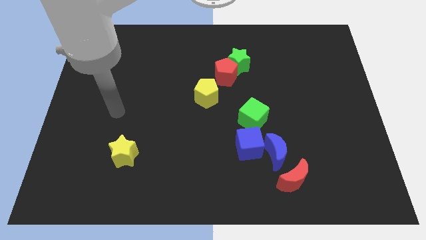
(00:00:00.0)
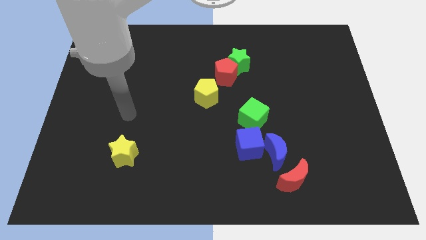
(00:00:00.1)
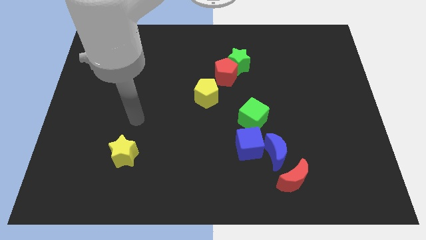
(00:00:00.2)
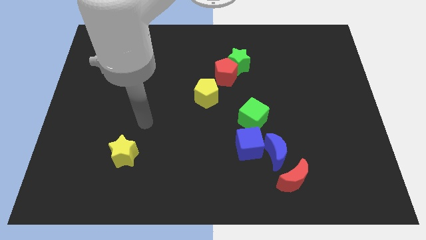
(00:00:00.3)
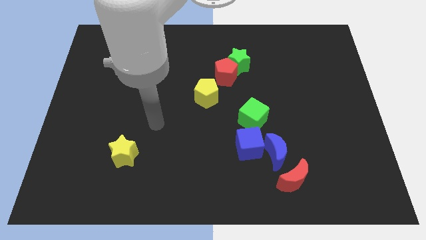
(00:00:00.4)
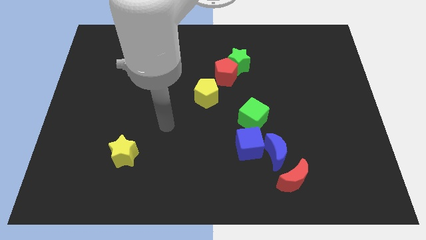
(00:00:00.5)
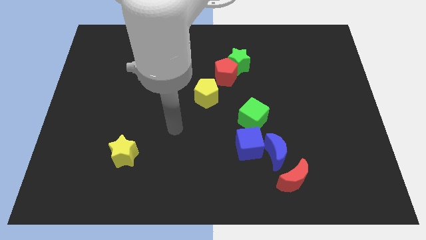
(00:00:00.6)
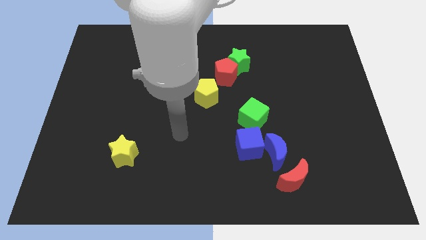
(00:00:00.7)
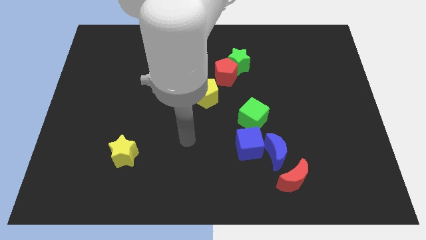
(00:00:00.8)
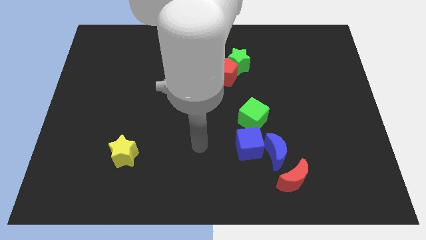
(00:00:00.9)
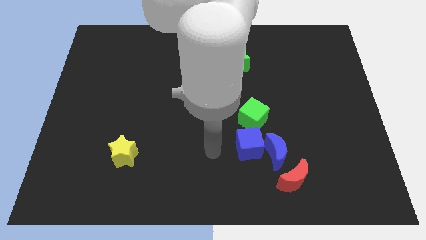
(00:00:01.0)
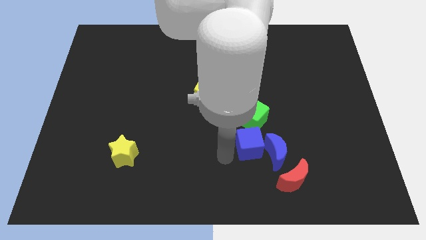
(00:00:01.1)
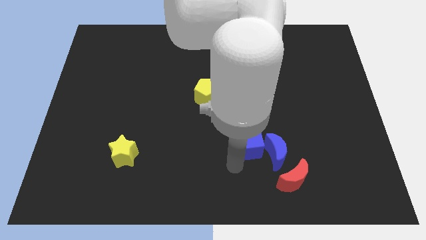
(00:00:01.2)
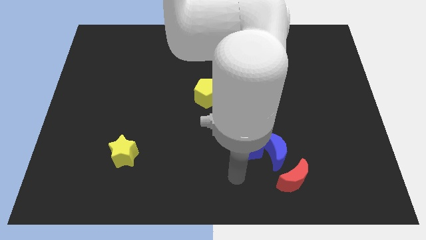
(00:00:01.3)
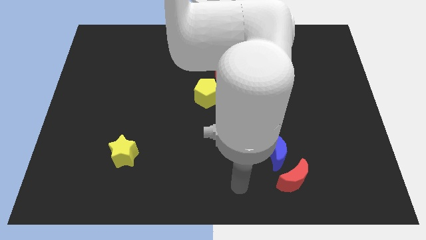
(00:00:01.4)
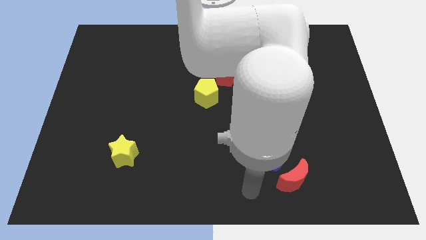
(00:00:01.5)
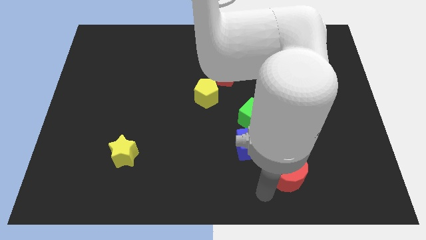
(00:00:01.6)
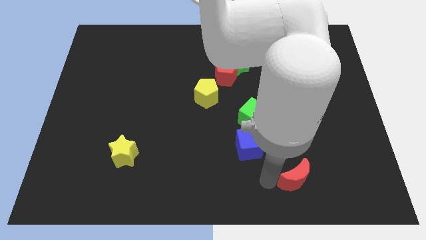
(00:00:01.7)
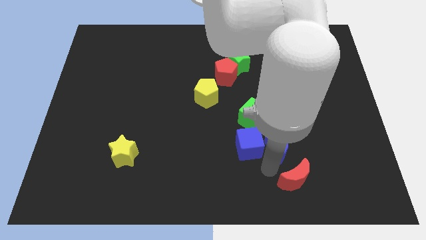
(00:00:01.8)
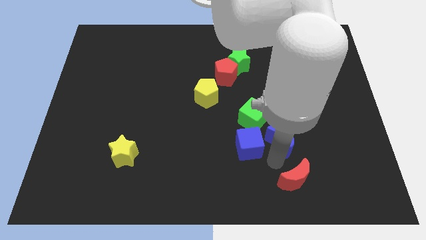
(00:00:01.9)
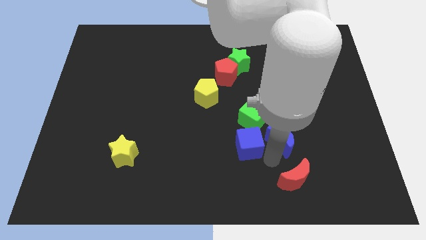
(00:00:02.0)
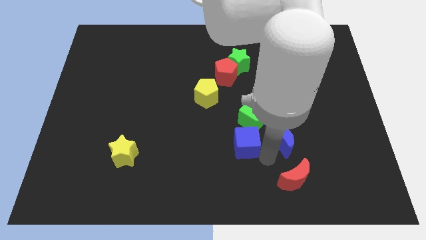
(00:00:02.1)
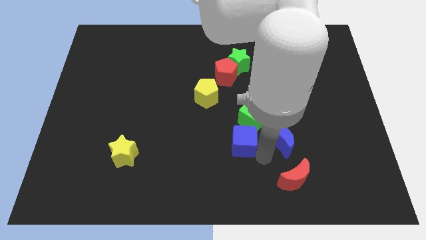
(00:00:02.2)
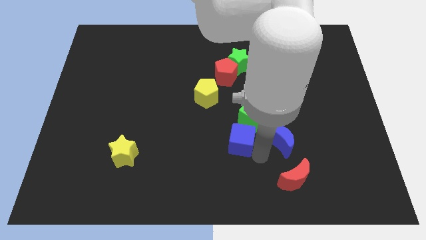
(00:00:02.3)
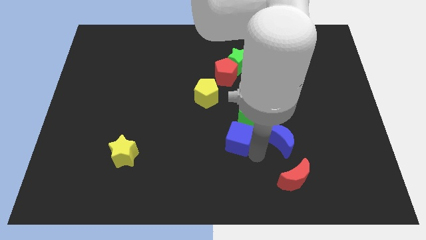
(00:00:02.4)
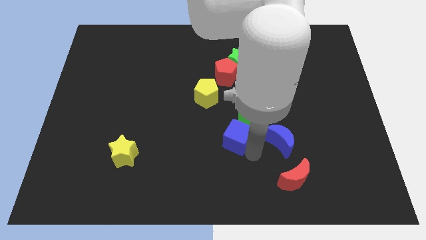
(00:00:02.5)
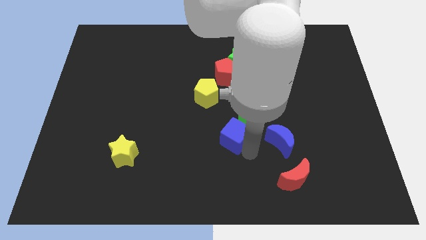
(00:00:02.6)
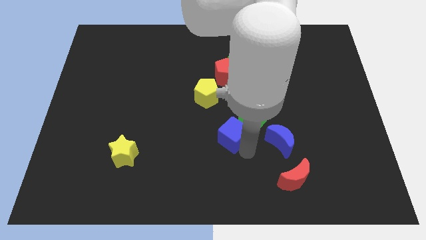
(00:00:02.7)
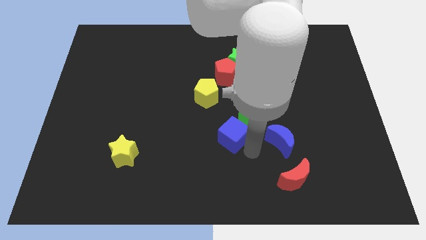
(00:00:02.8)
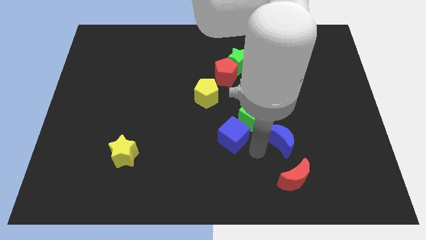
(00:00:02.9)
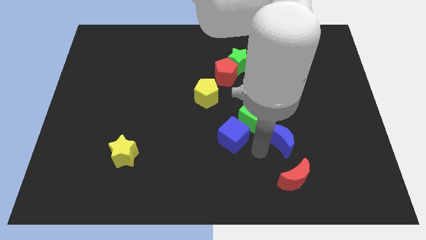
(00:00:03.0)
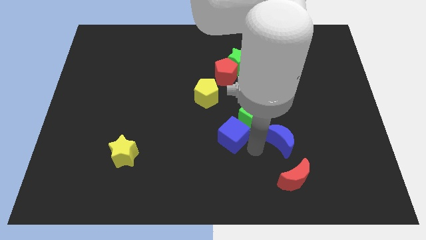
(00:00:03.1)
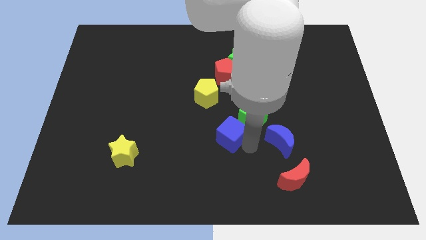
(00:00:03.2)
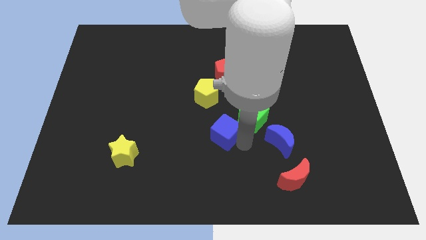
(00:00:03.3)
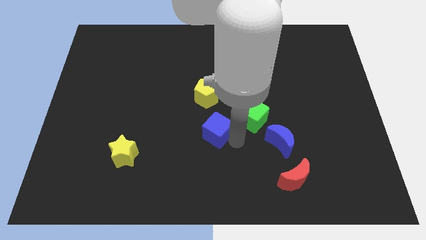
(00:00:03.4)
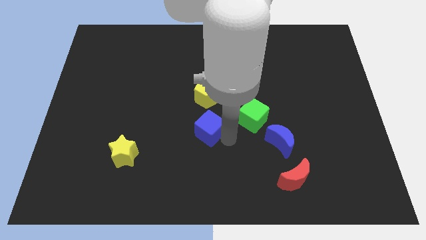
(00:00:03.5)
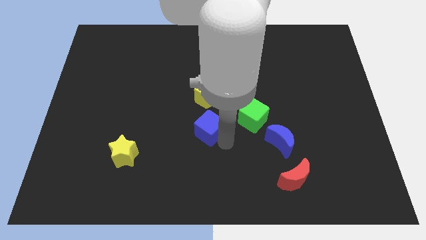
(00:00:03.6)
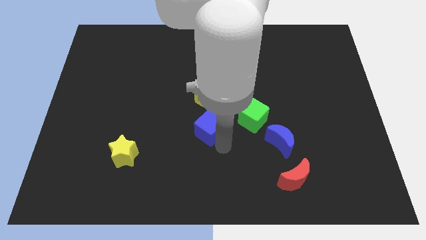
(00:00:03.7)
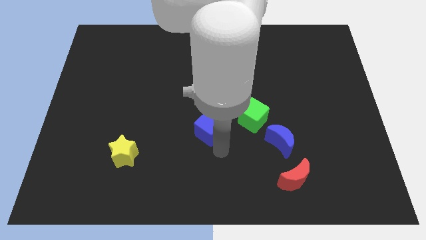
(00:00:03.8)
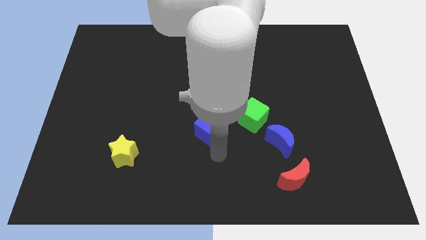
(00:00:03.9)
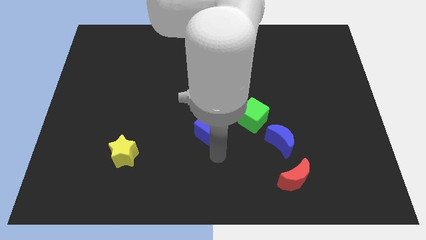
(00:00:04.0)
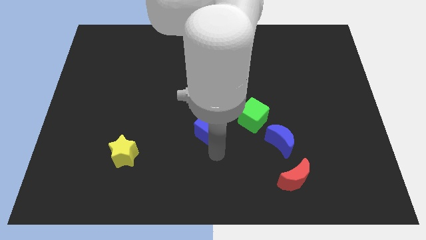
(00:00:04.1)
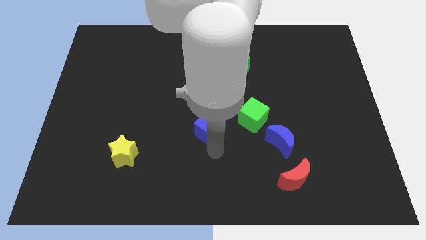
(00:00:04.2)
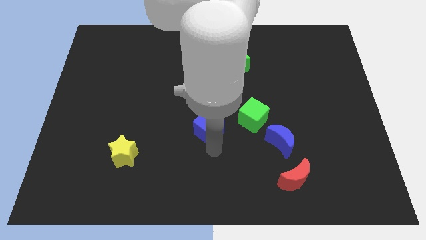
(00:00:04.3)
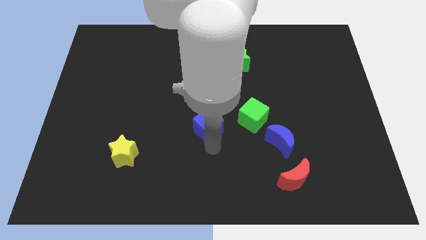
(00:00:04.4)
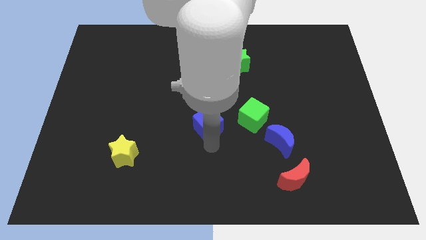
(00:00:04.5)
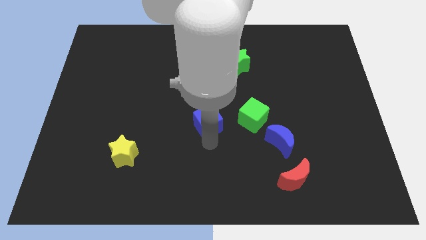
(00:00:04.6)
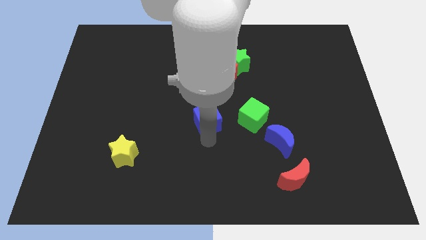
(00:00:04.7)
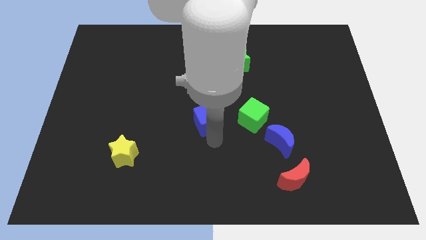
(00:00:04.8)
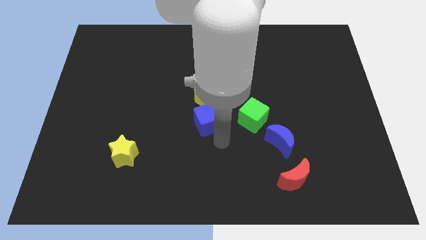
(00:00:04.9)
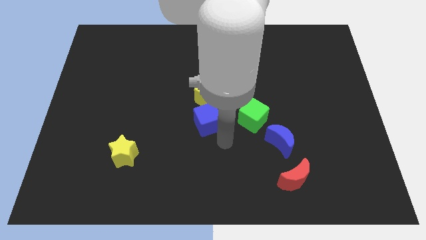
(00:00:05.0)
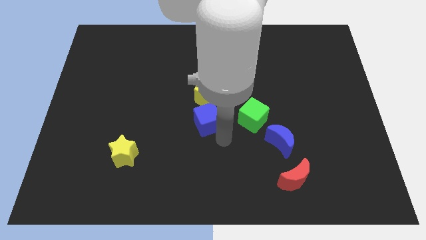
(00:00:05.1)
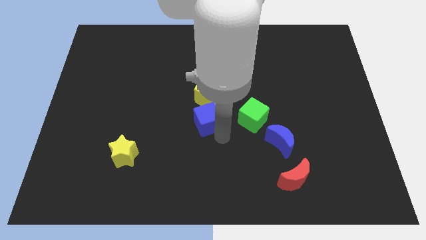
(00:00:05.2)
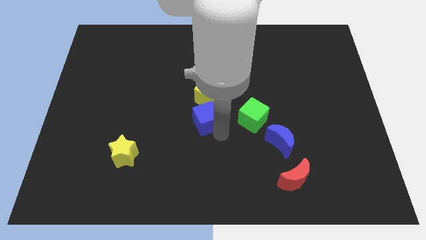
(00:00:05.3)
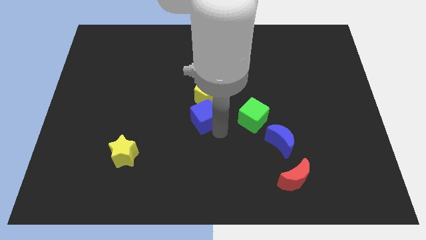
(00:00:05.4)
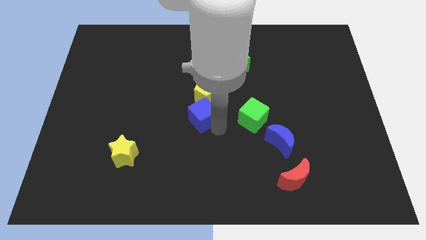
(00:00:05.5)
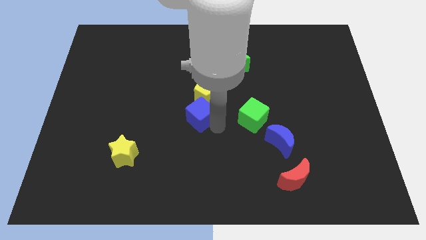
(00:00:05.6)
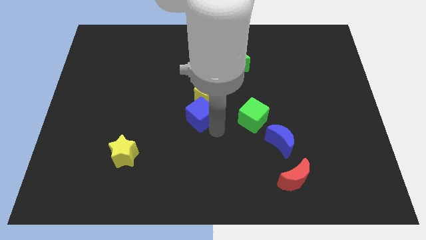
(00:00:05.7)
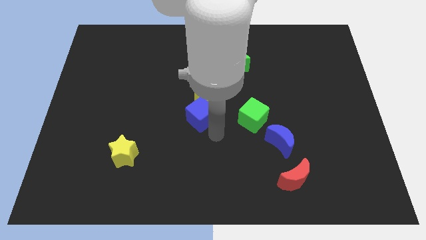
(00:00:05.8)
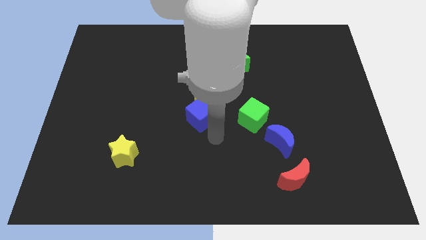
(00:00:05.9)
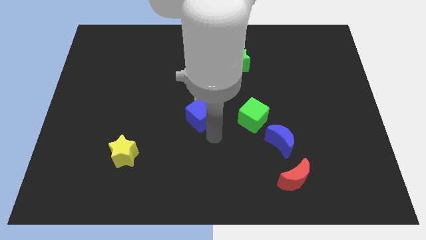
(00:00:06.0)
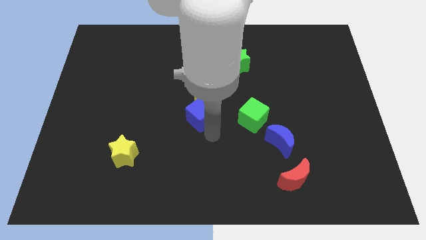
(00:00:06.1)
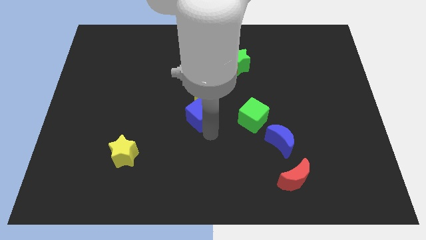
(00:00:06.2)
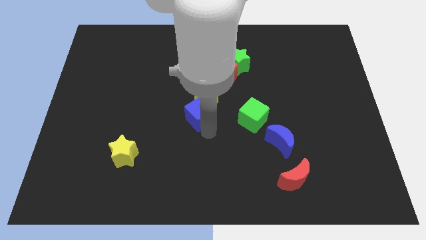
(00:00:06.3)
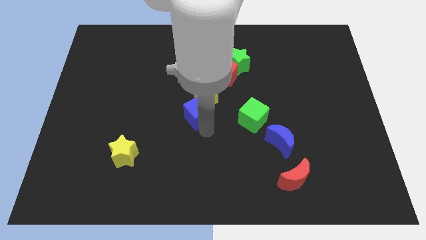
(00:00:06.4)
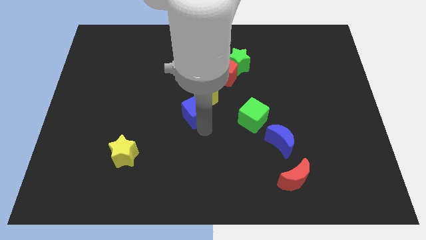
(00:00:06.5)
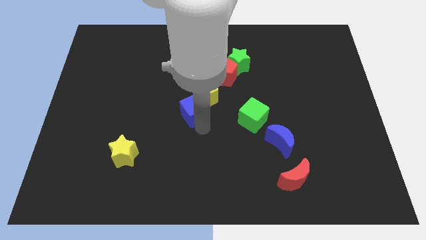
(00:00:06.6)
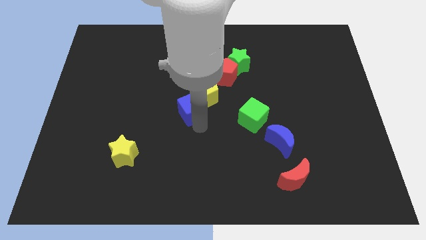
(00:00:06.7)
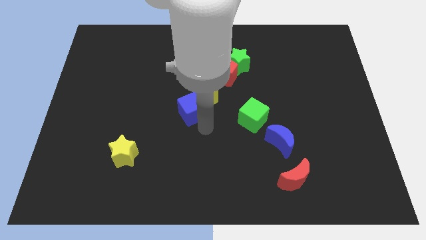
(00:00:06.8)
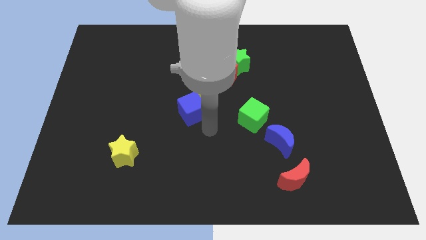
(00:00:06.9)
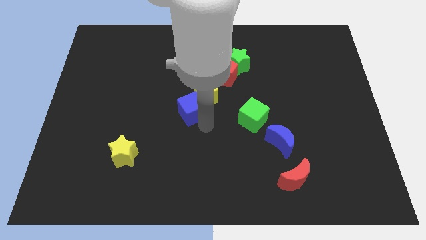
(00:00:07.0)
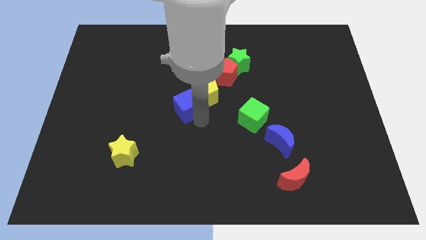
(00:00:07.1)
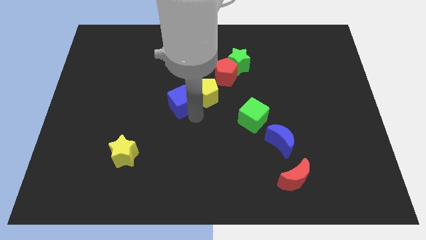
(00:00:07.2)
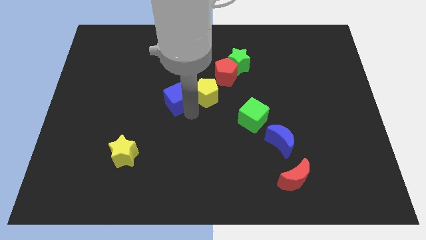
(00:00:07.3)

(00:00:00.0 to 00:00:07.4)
move the blue cube up and to the left diagonally

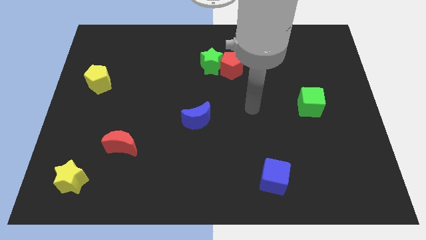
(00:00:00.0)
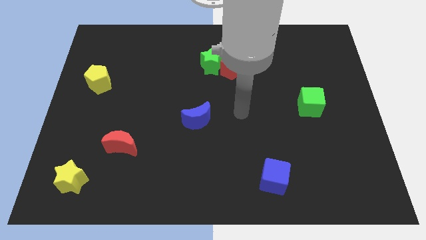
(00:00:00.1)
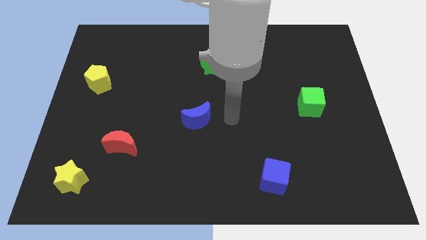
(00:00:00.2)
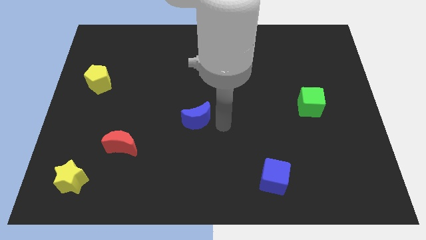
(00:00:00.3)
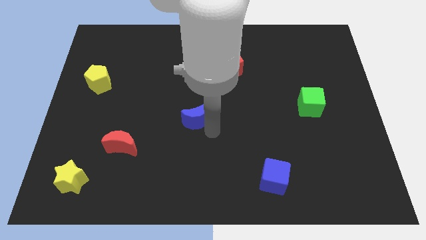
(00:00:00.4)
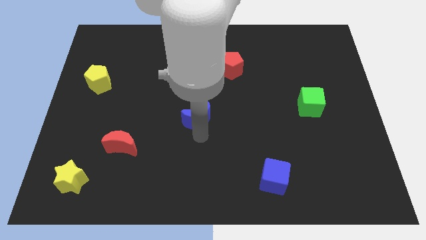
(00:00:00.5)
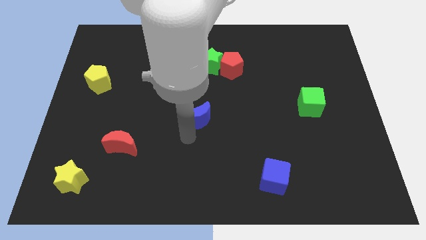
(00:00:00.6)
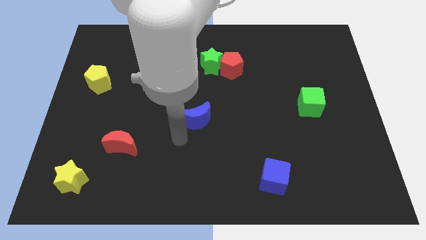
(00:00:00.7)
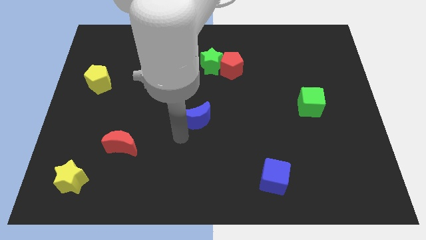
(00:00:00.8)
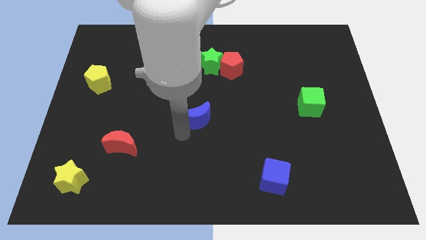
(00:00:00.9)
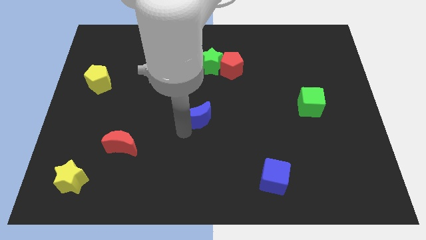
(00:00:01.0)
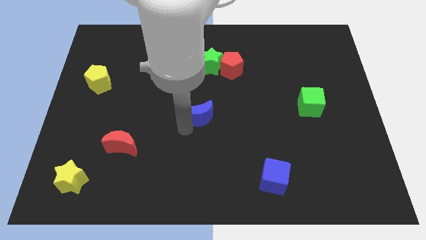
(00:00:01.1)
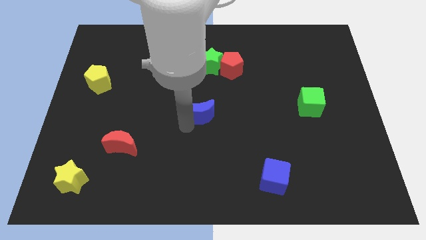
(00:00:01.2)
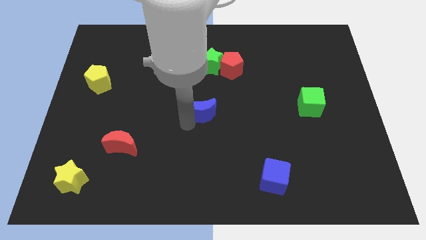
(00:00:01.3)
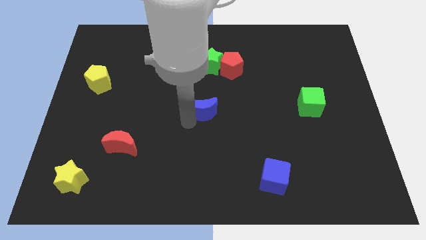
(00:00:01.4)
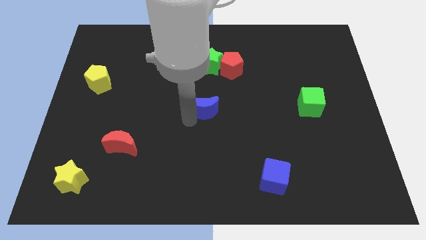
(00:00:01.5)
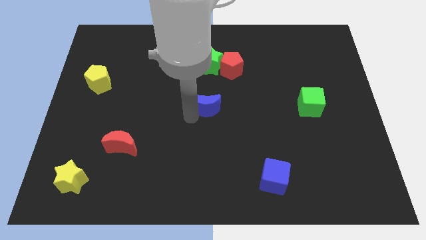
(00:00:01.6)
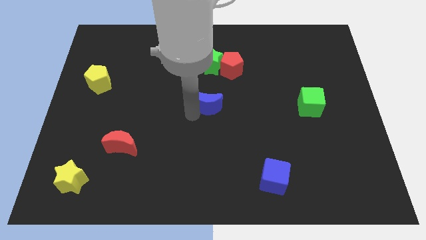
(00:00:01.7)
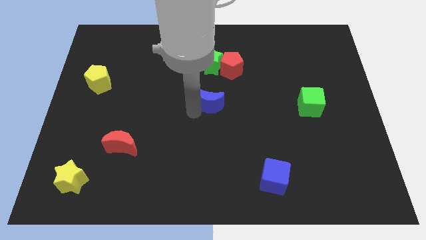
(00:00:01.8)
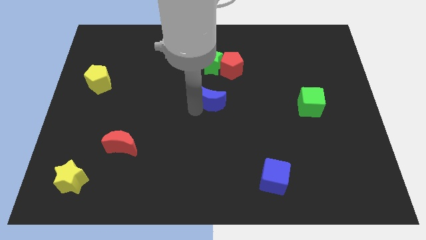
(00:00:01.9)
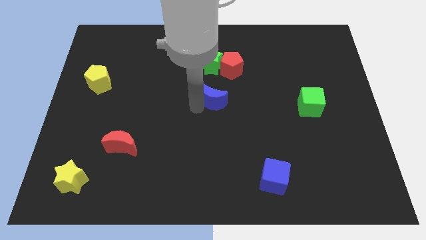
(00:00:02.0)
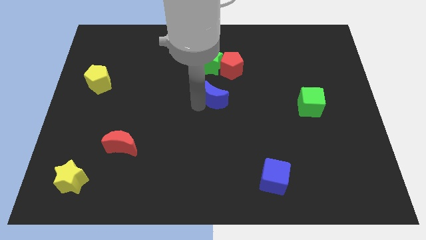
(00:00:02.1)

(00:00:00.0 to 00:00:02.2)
slide the blue moon up and right a little bit
